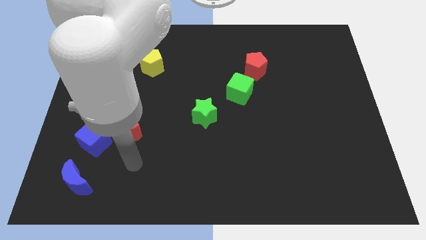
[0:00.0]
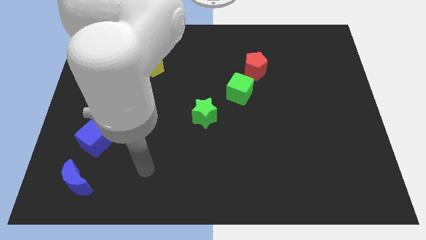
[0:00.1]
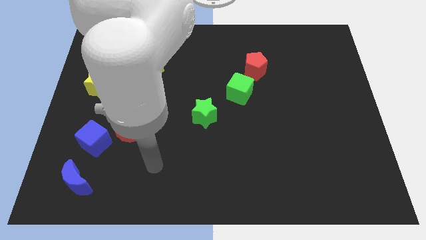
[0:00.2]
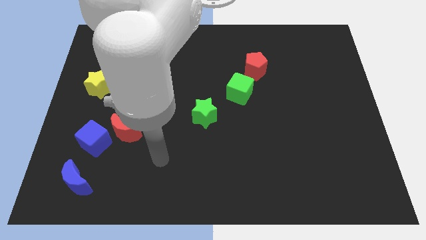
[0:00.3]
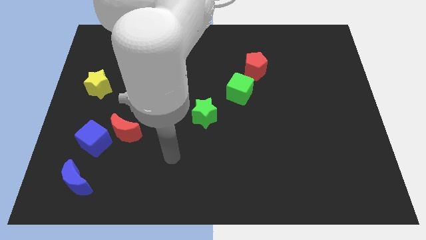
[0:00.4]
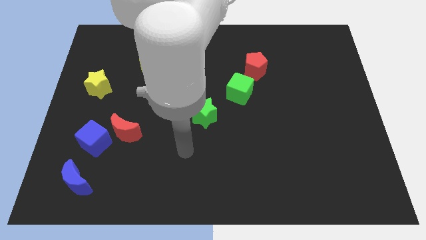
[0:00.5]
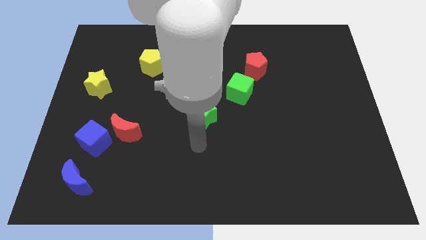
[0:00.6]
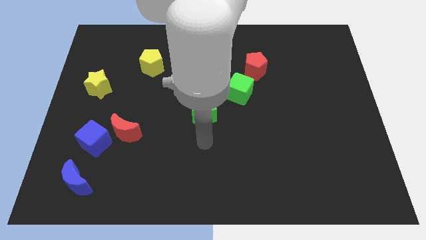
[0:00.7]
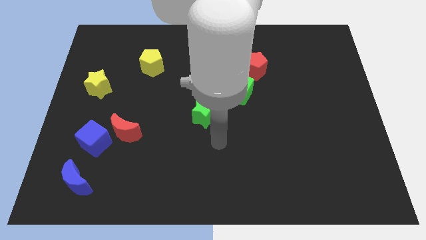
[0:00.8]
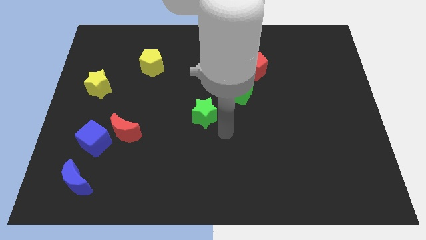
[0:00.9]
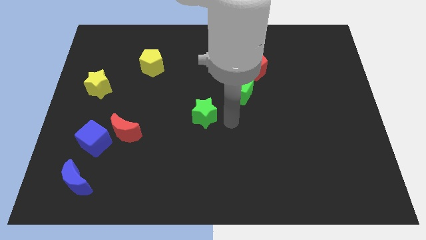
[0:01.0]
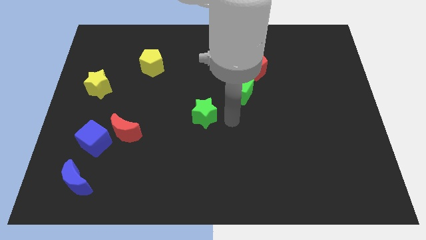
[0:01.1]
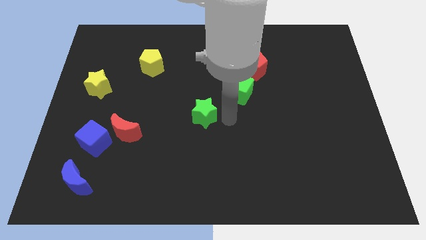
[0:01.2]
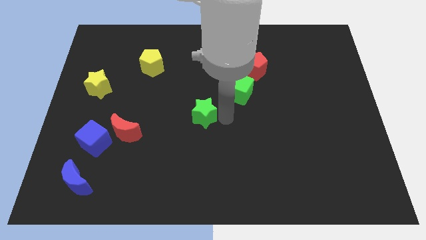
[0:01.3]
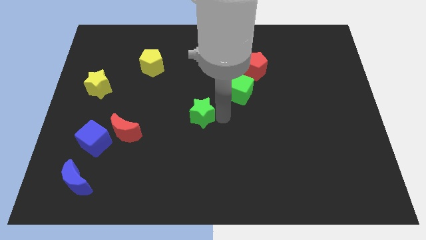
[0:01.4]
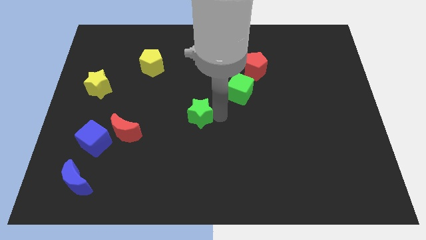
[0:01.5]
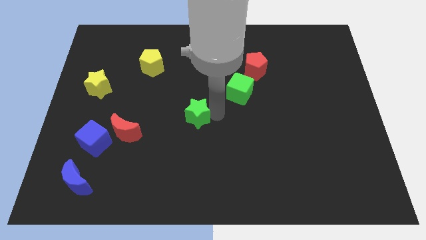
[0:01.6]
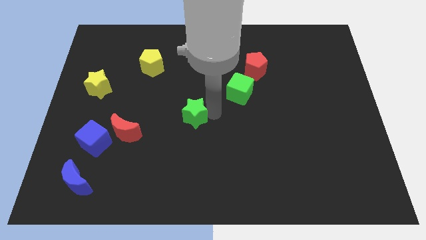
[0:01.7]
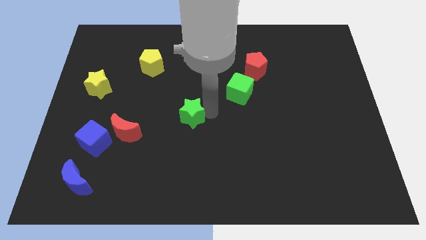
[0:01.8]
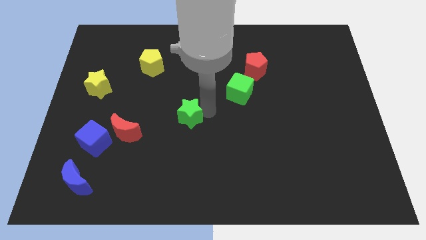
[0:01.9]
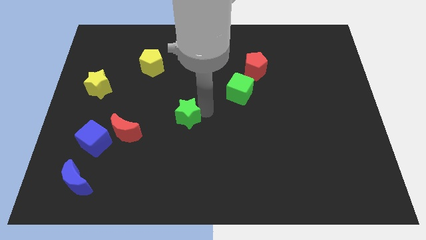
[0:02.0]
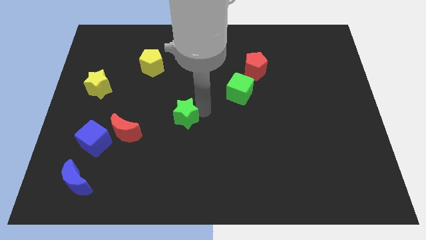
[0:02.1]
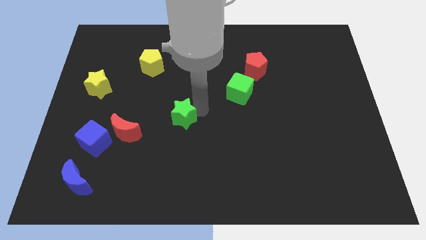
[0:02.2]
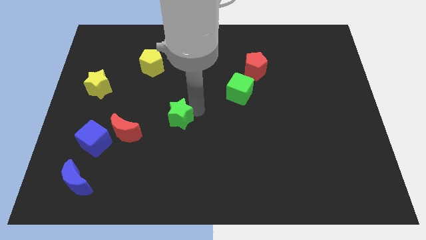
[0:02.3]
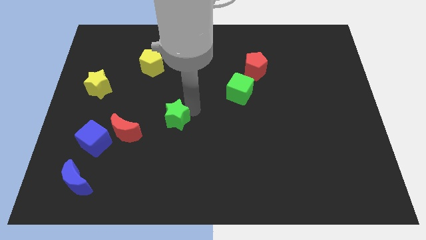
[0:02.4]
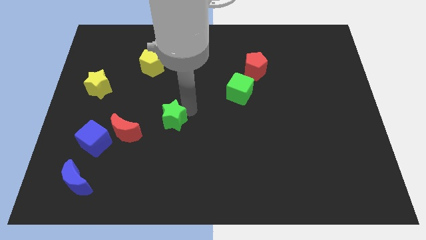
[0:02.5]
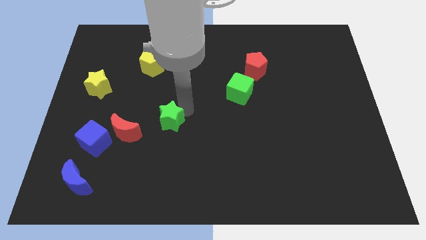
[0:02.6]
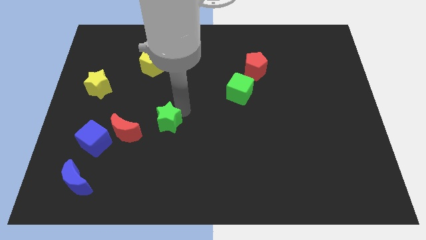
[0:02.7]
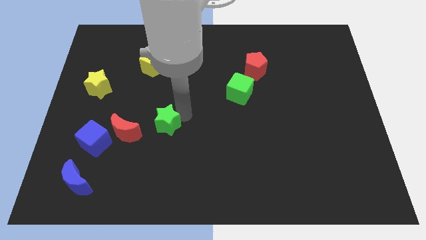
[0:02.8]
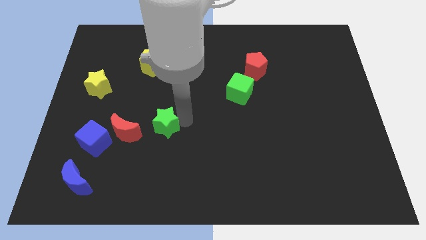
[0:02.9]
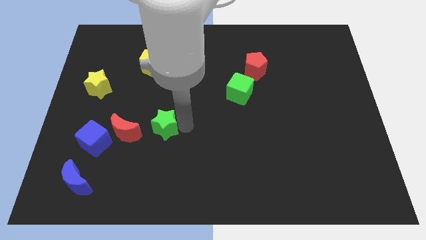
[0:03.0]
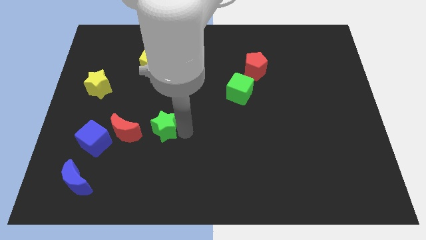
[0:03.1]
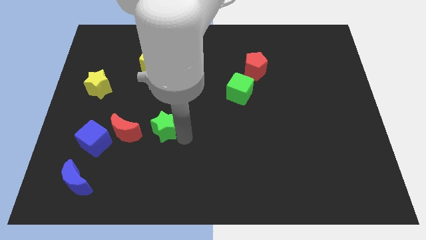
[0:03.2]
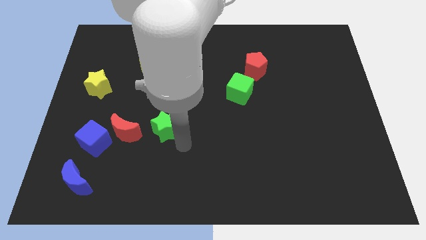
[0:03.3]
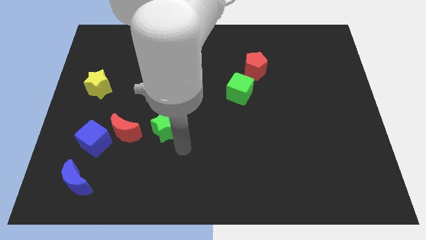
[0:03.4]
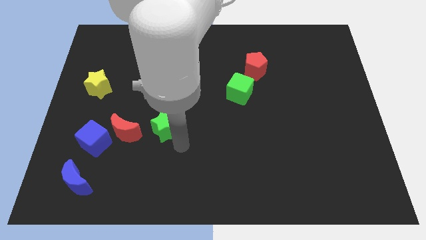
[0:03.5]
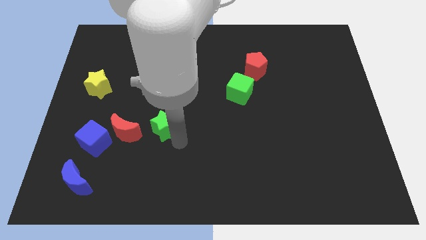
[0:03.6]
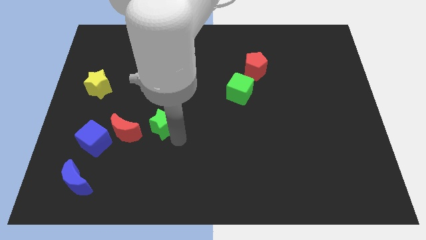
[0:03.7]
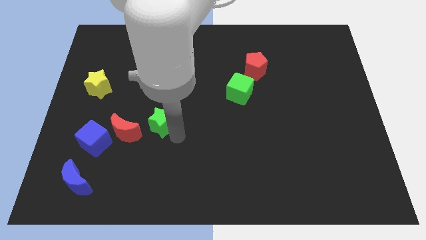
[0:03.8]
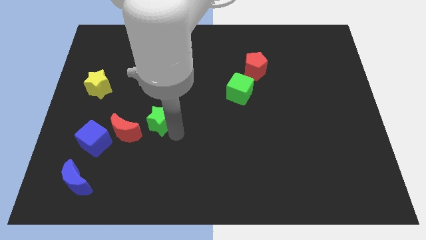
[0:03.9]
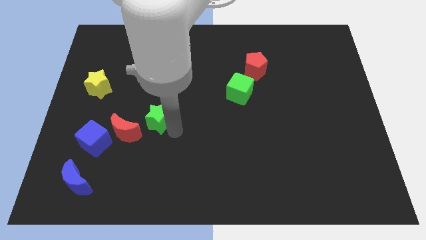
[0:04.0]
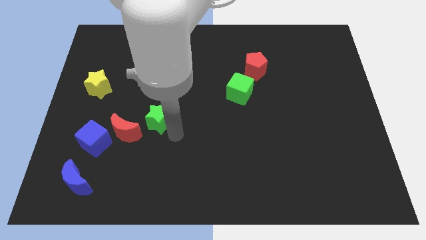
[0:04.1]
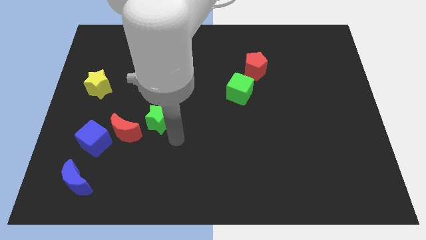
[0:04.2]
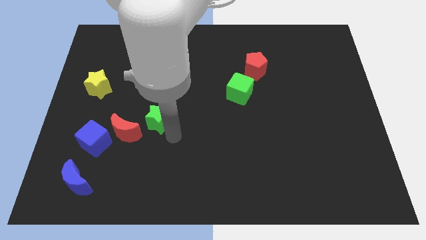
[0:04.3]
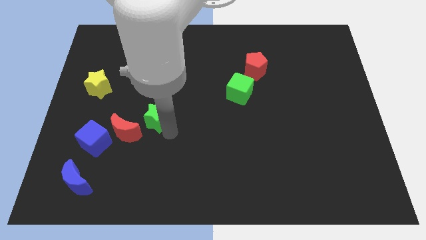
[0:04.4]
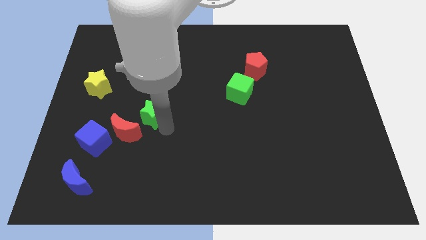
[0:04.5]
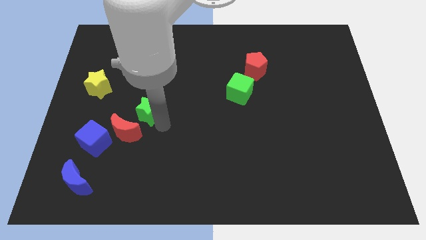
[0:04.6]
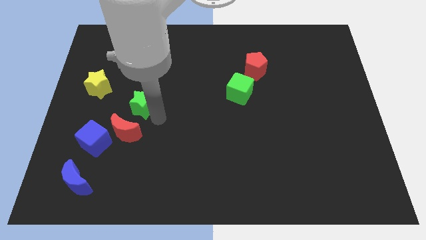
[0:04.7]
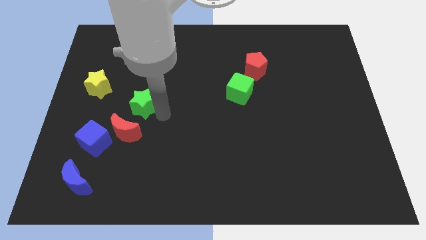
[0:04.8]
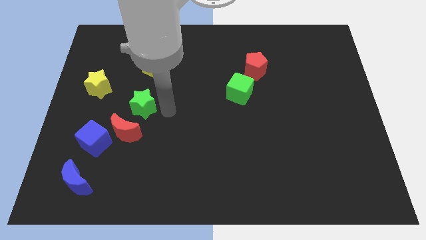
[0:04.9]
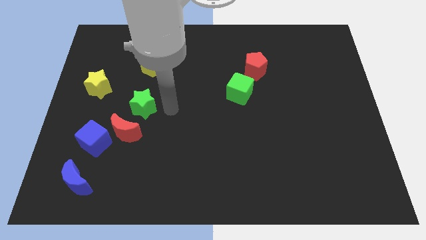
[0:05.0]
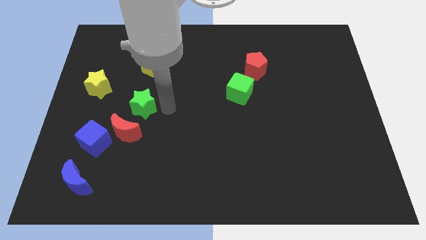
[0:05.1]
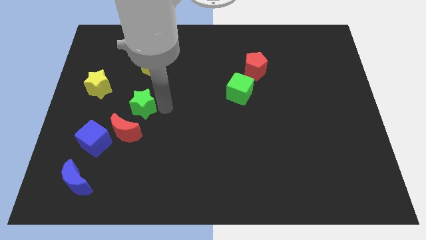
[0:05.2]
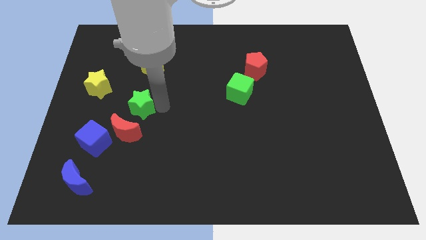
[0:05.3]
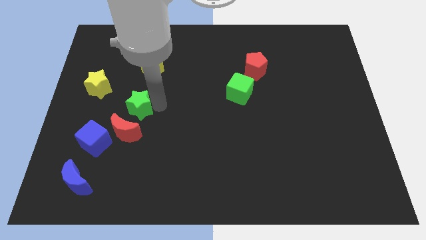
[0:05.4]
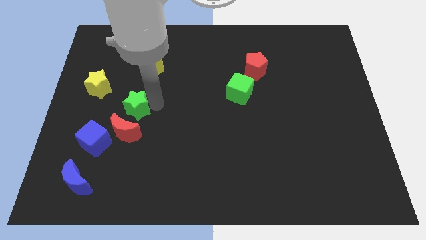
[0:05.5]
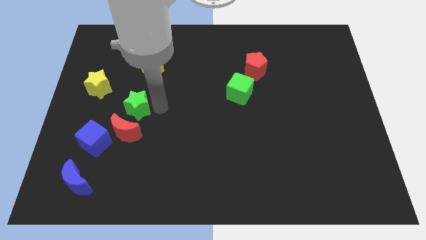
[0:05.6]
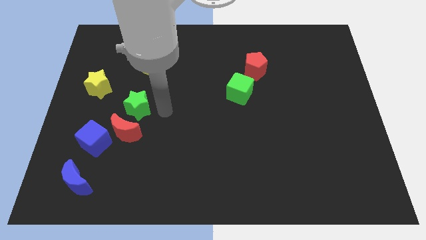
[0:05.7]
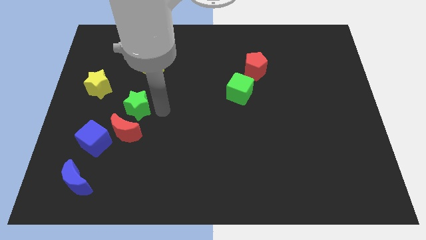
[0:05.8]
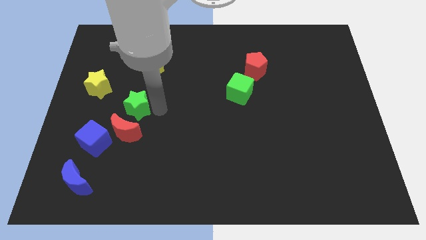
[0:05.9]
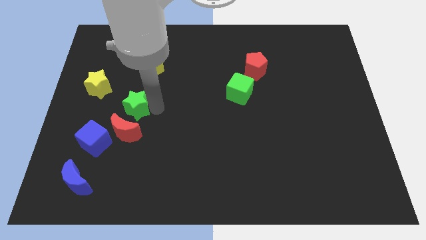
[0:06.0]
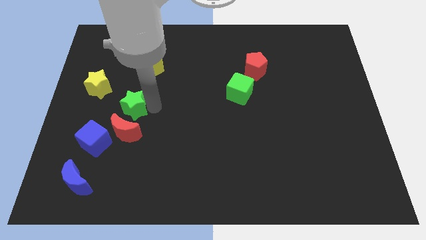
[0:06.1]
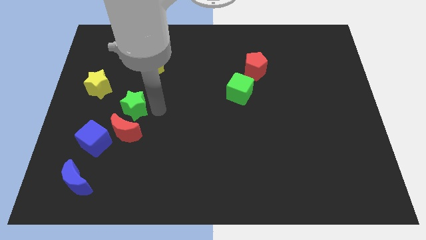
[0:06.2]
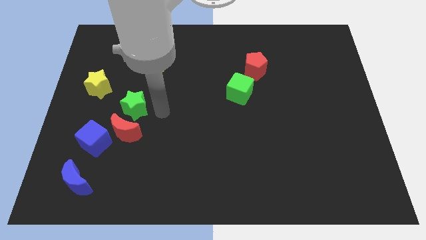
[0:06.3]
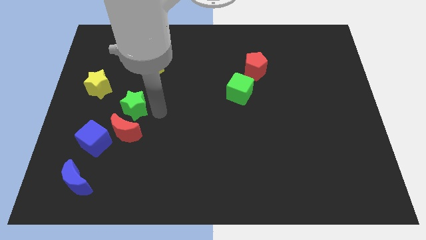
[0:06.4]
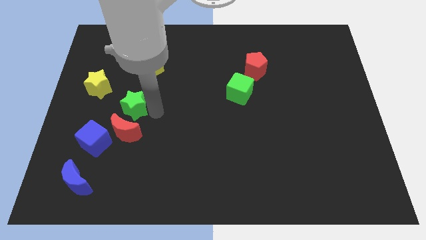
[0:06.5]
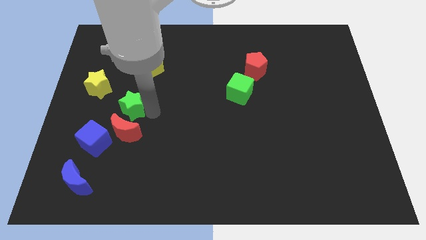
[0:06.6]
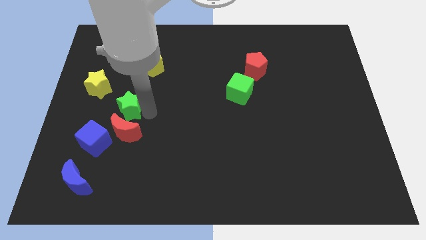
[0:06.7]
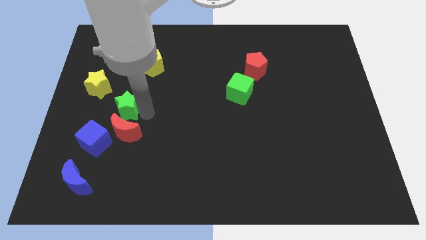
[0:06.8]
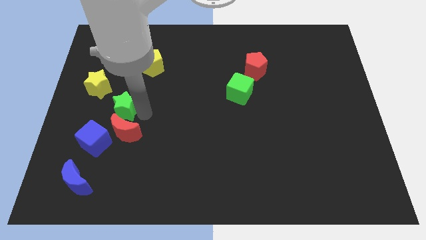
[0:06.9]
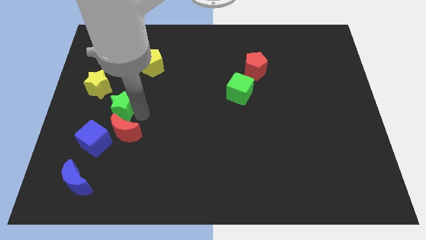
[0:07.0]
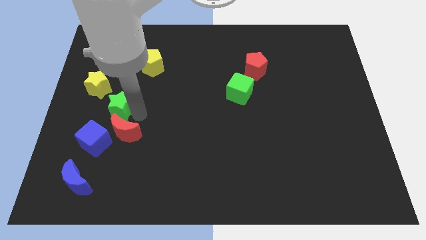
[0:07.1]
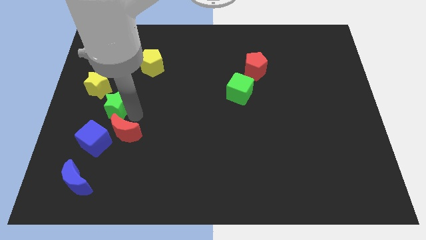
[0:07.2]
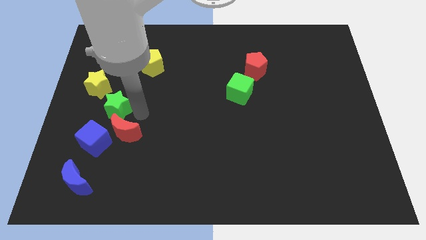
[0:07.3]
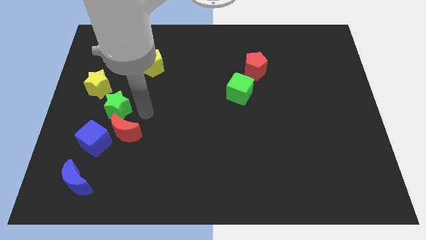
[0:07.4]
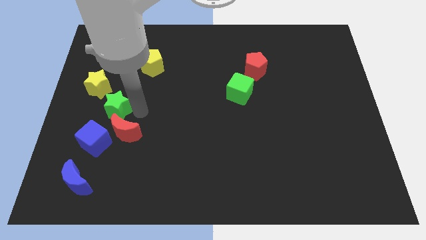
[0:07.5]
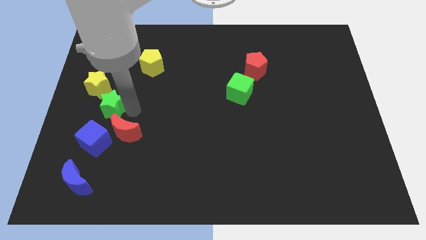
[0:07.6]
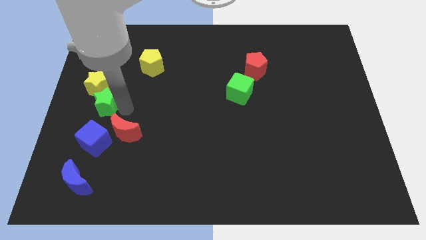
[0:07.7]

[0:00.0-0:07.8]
slide the green star to the center left
